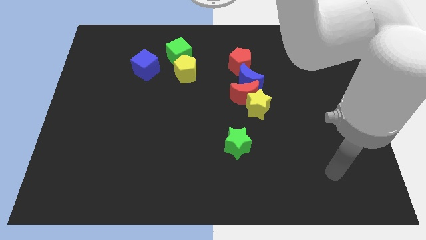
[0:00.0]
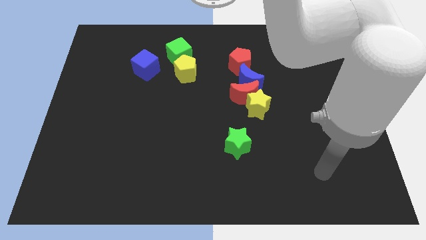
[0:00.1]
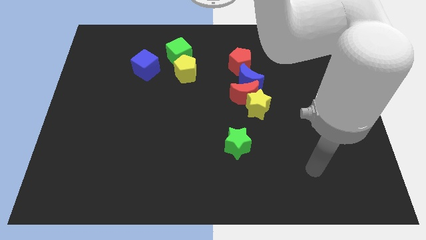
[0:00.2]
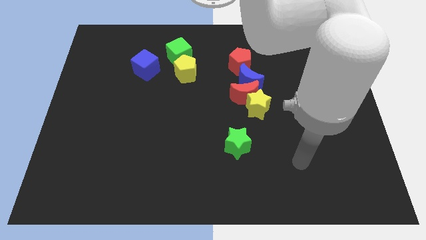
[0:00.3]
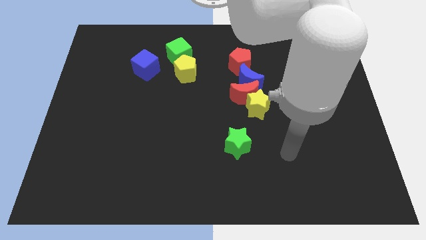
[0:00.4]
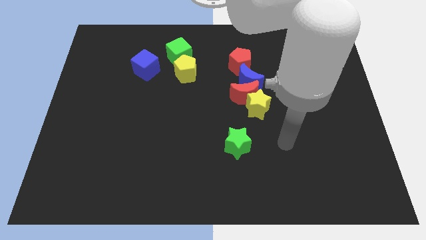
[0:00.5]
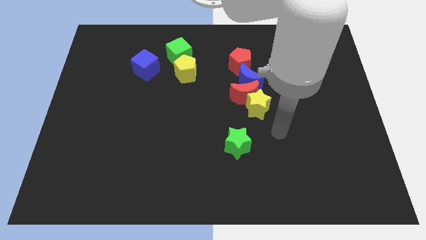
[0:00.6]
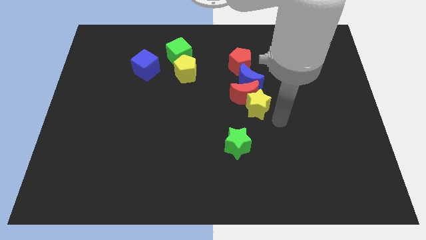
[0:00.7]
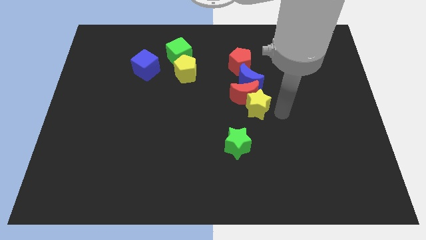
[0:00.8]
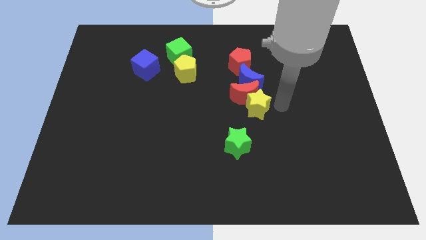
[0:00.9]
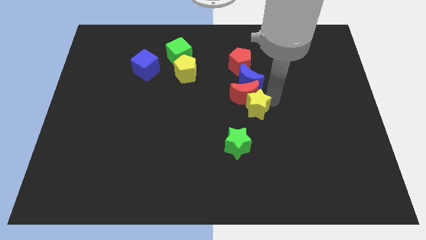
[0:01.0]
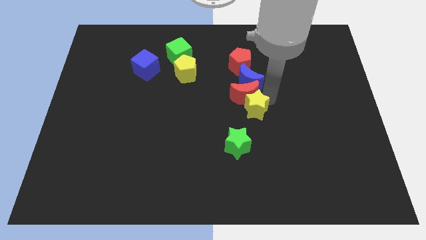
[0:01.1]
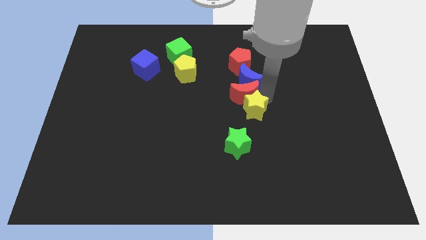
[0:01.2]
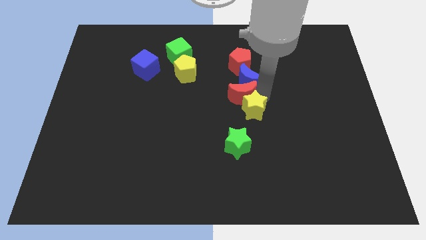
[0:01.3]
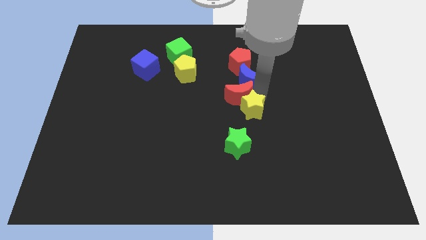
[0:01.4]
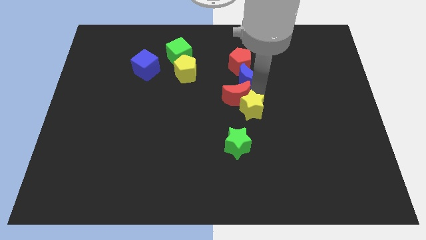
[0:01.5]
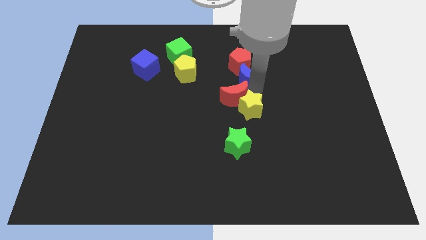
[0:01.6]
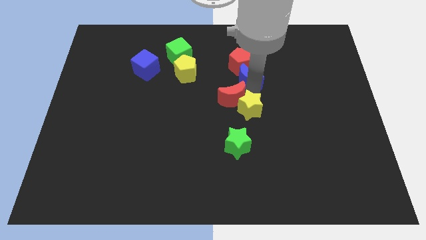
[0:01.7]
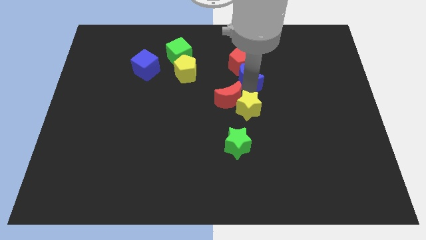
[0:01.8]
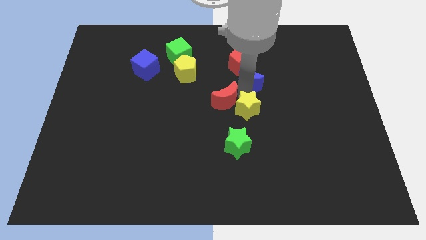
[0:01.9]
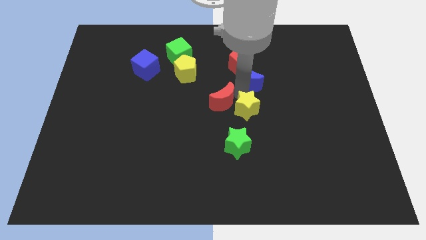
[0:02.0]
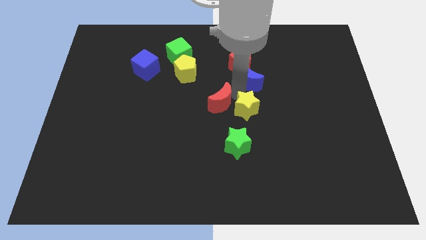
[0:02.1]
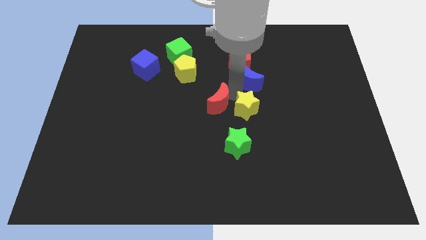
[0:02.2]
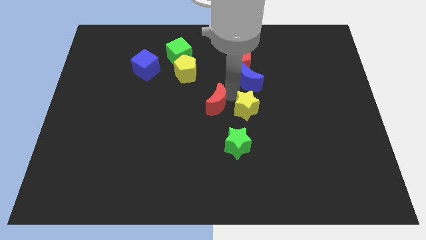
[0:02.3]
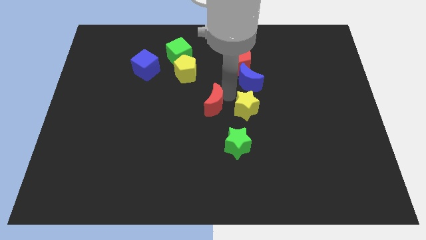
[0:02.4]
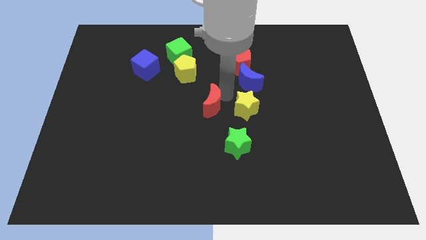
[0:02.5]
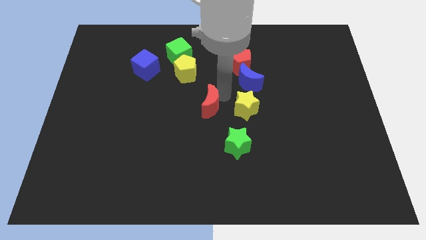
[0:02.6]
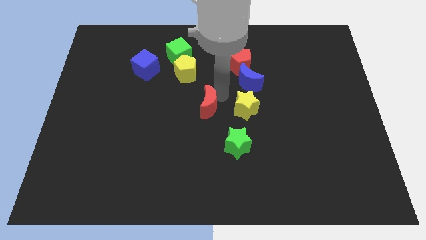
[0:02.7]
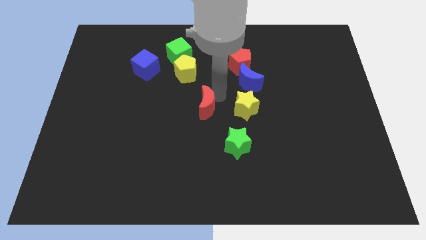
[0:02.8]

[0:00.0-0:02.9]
pull the red moon apart from the yellow star and blue moon

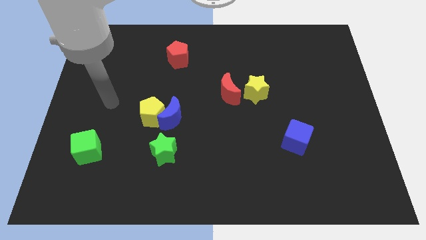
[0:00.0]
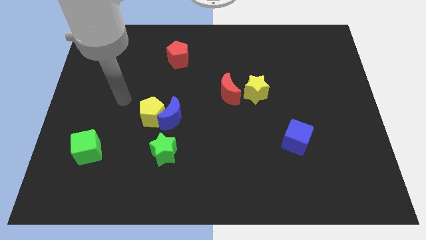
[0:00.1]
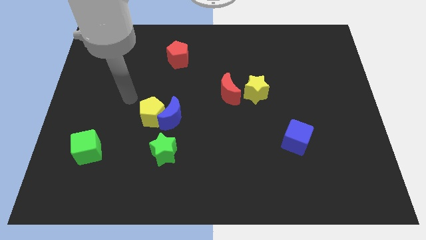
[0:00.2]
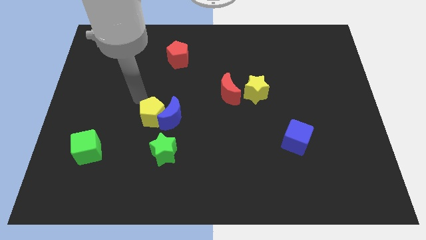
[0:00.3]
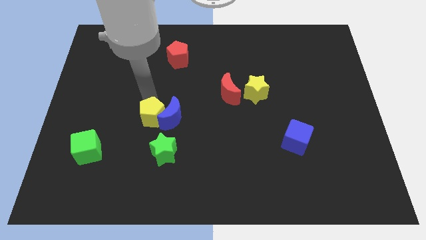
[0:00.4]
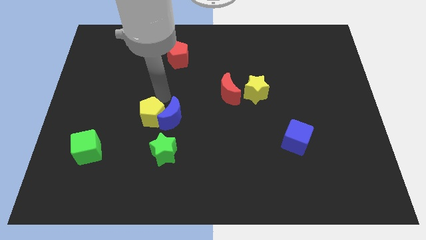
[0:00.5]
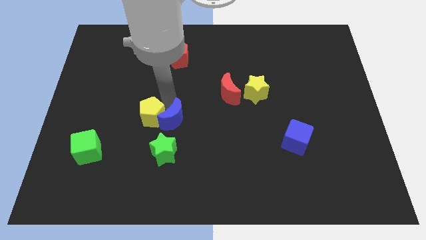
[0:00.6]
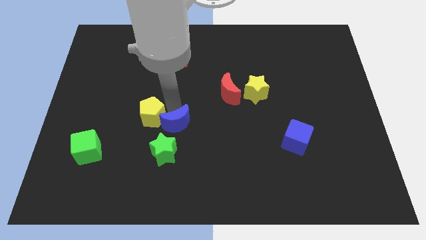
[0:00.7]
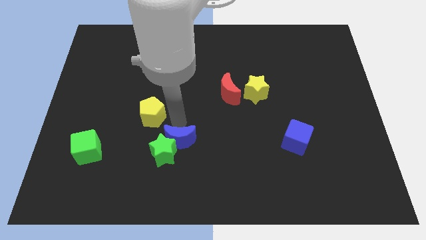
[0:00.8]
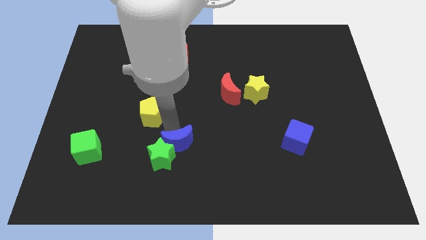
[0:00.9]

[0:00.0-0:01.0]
move the yellow pentagon away from the blue moon

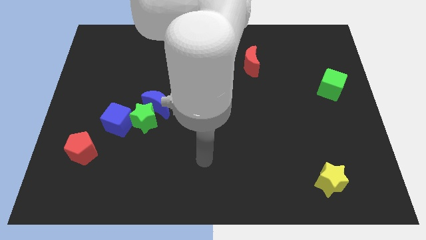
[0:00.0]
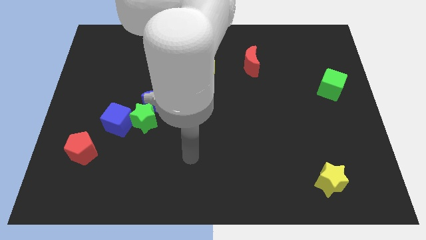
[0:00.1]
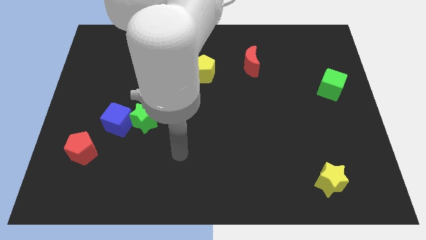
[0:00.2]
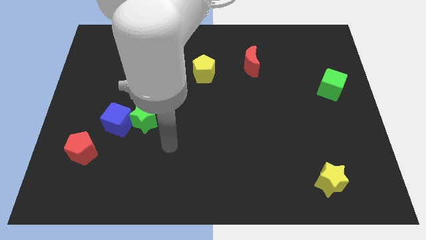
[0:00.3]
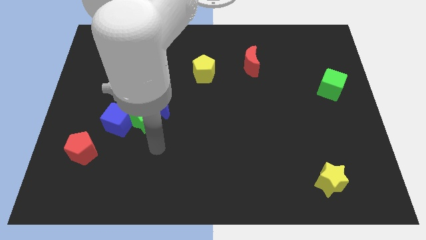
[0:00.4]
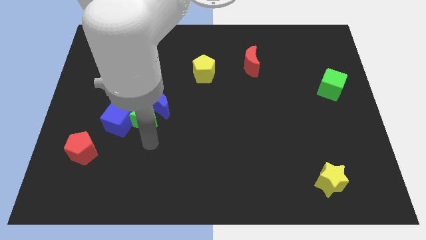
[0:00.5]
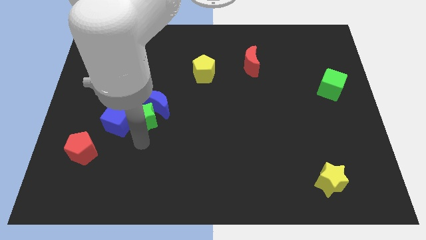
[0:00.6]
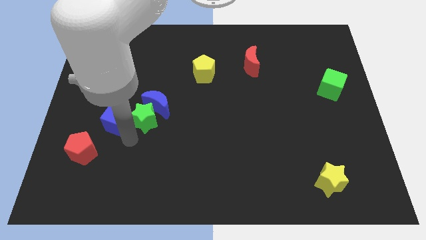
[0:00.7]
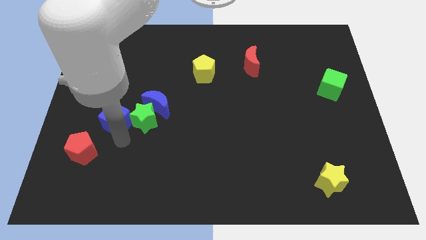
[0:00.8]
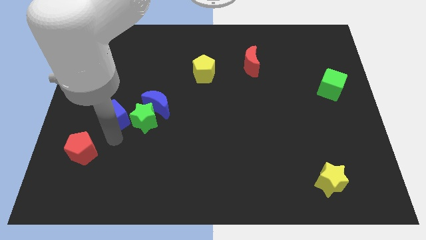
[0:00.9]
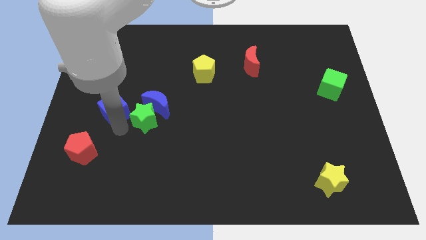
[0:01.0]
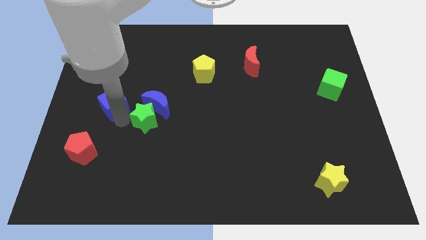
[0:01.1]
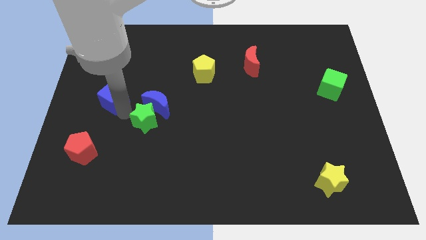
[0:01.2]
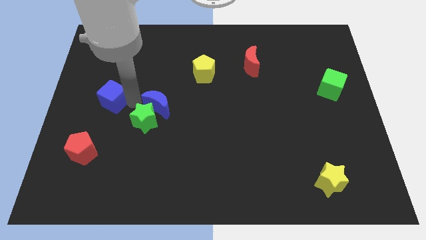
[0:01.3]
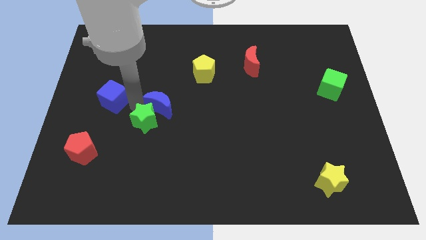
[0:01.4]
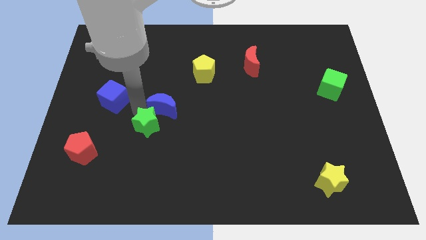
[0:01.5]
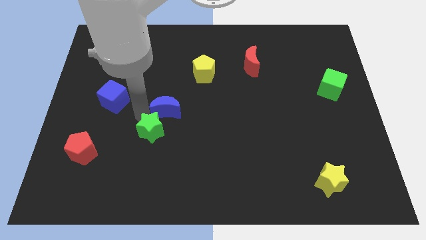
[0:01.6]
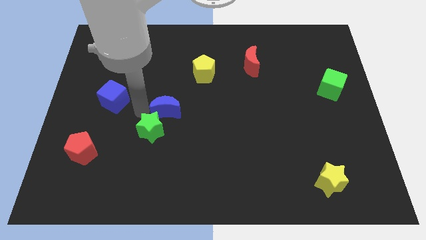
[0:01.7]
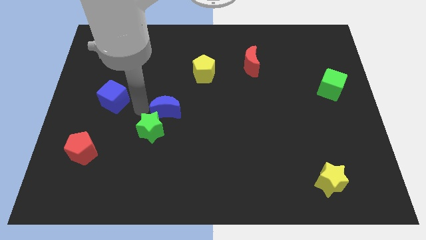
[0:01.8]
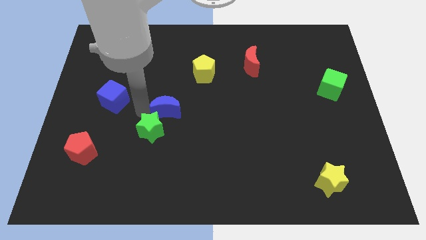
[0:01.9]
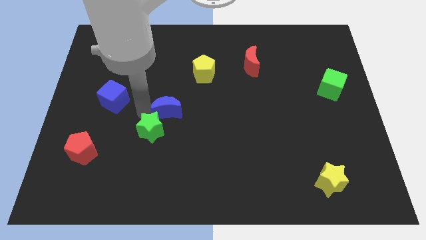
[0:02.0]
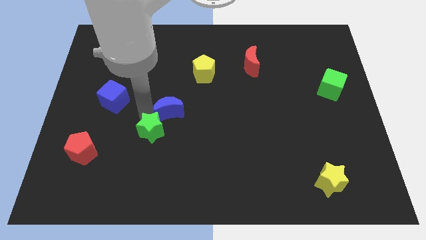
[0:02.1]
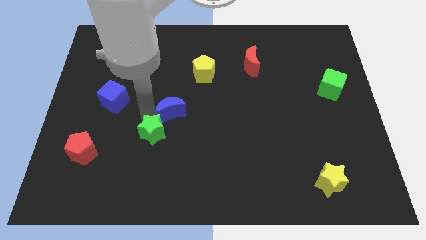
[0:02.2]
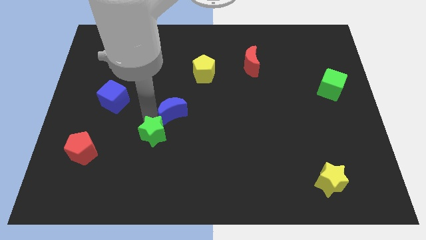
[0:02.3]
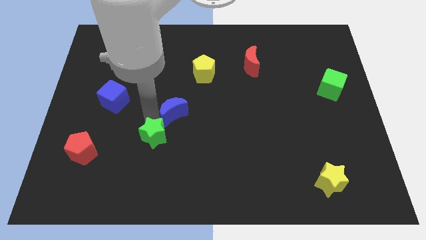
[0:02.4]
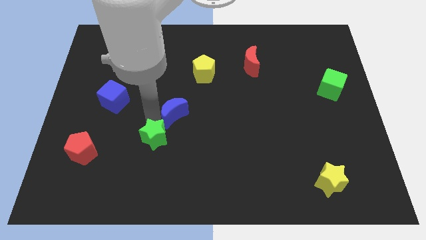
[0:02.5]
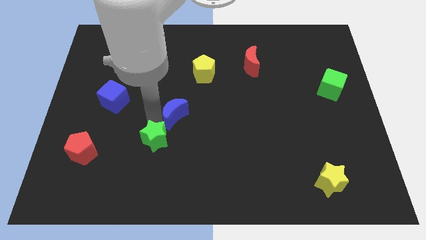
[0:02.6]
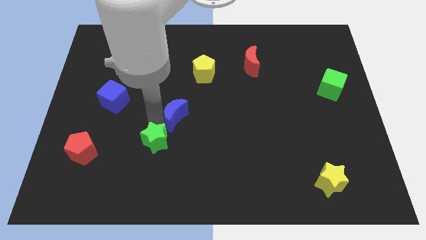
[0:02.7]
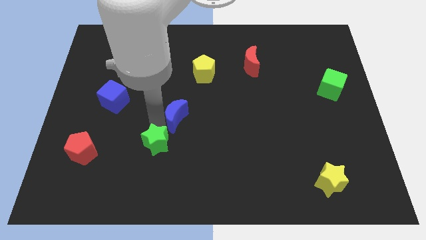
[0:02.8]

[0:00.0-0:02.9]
separate the green star from the blue moon and blue cube

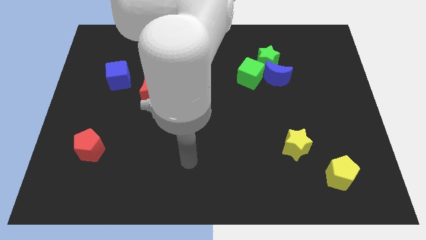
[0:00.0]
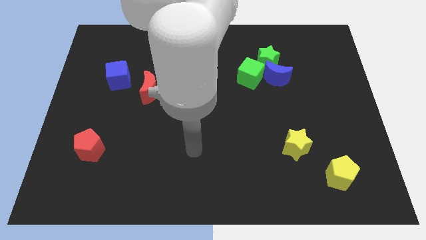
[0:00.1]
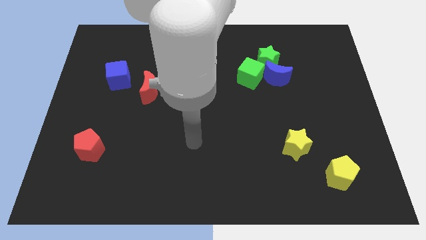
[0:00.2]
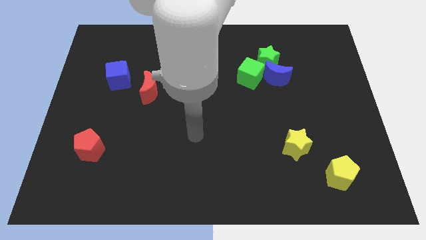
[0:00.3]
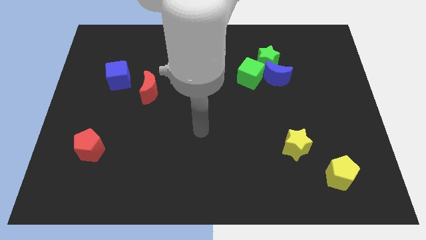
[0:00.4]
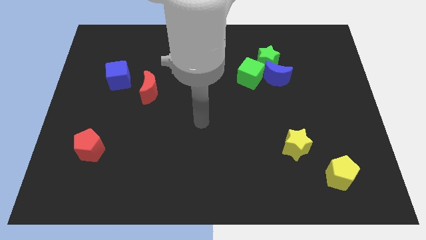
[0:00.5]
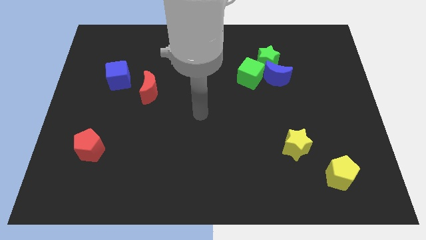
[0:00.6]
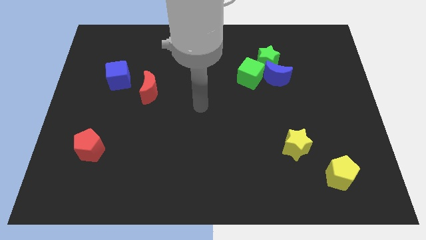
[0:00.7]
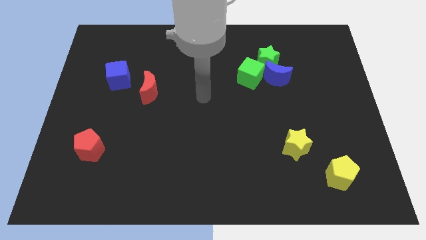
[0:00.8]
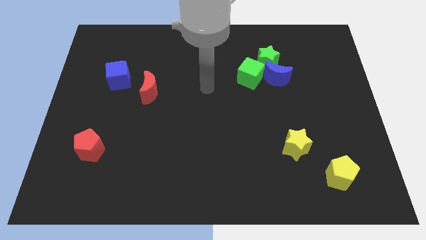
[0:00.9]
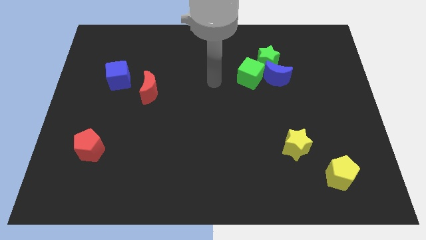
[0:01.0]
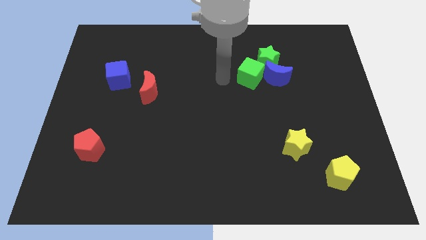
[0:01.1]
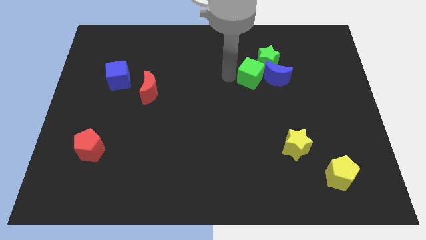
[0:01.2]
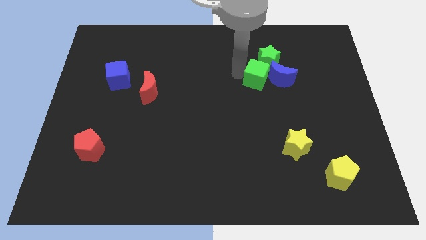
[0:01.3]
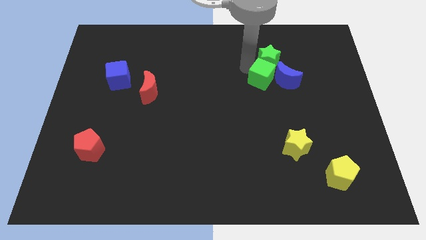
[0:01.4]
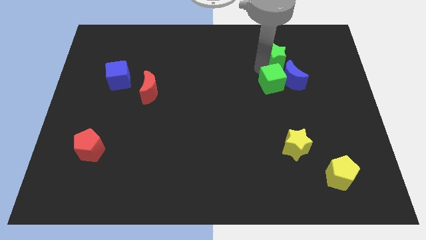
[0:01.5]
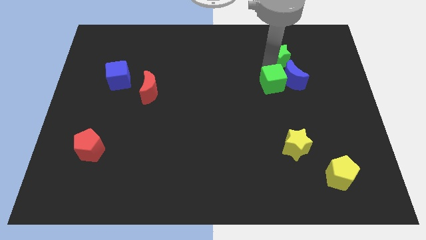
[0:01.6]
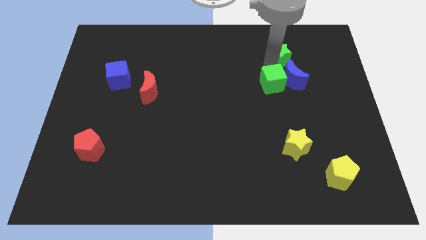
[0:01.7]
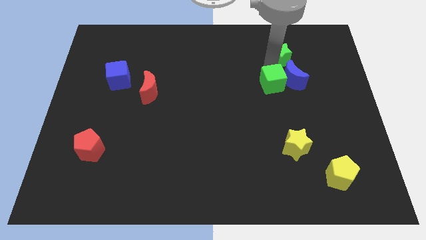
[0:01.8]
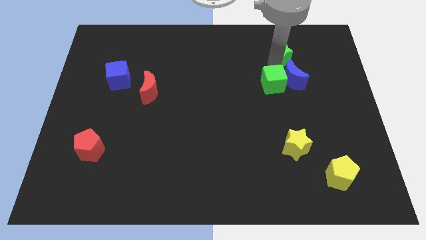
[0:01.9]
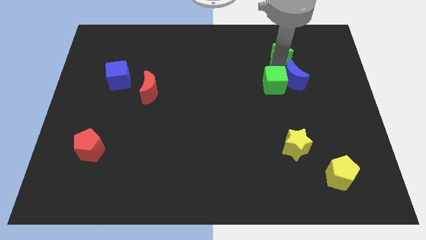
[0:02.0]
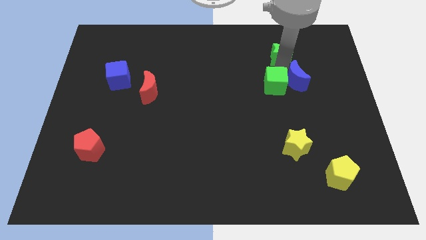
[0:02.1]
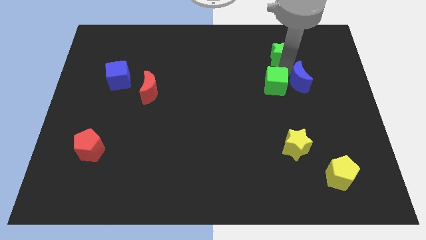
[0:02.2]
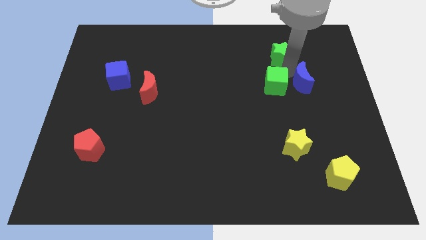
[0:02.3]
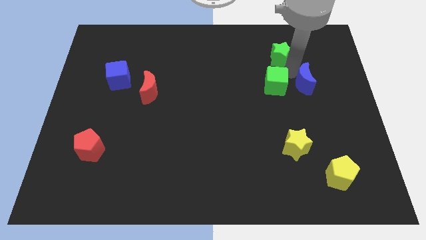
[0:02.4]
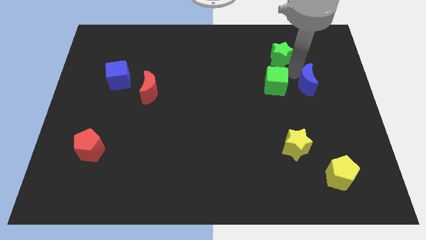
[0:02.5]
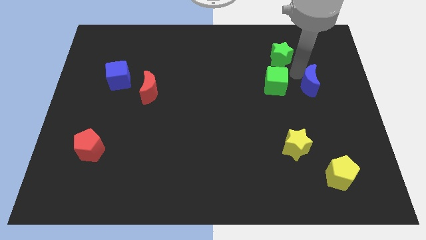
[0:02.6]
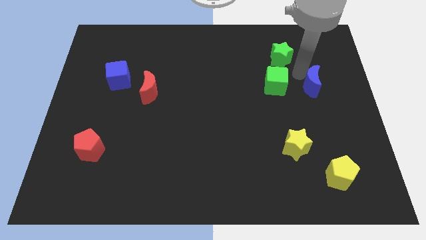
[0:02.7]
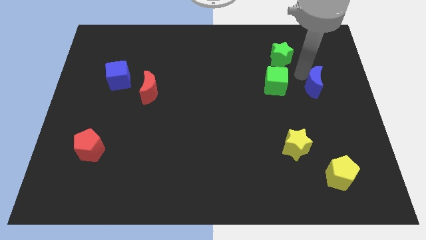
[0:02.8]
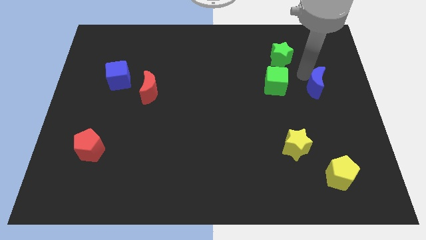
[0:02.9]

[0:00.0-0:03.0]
separate the blue moon from the green star and green cube
